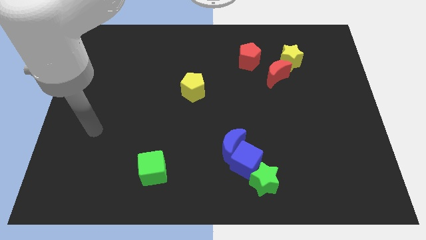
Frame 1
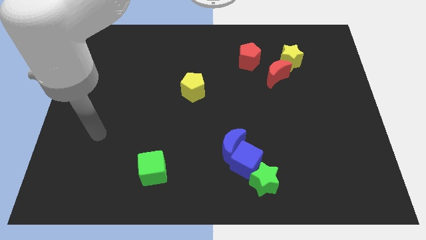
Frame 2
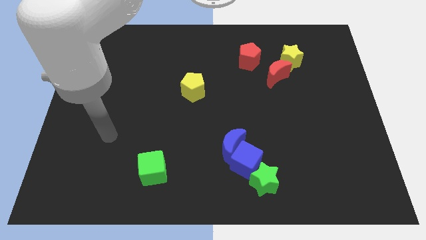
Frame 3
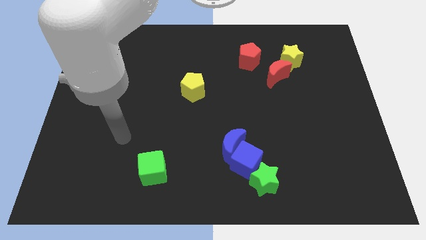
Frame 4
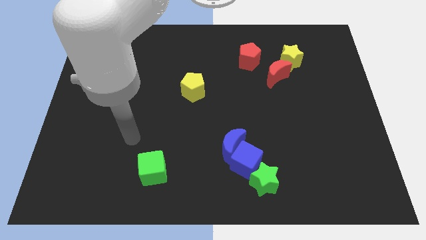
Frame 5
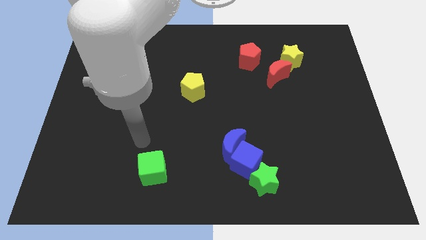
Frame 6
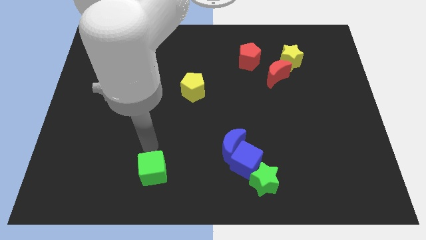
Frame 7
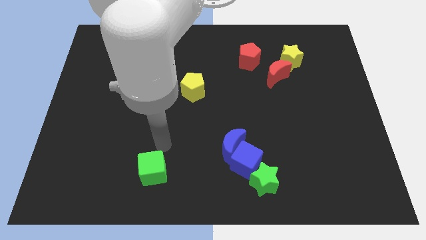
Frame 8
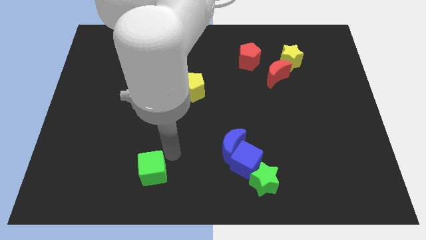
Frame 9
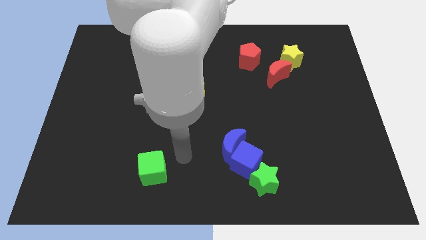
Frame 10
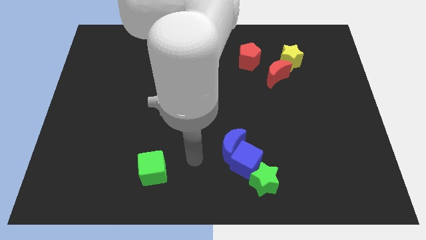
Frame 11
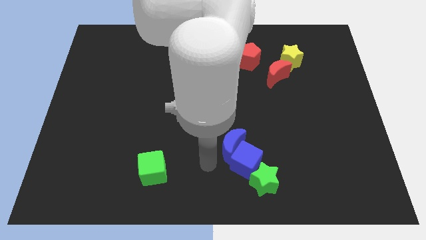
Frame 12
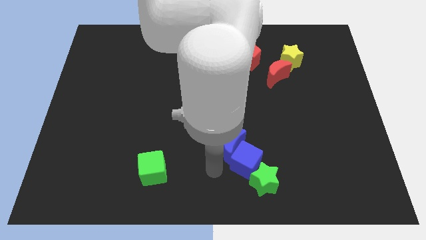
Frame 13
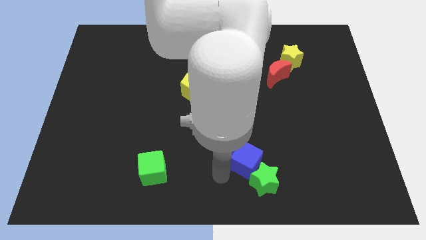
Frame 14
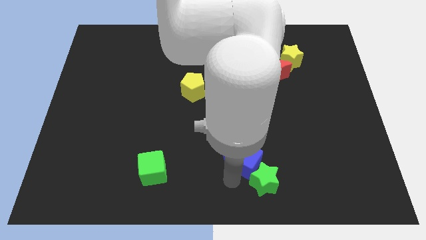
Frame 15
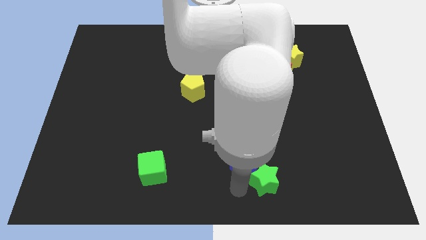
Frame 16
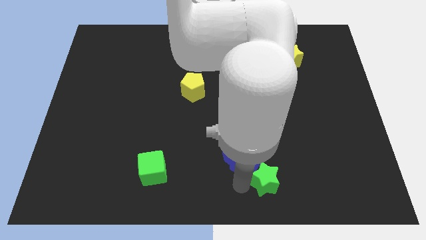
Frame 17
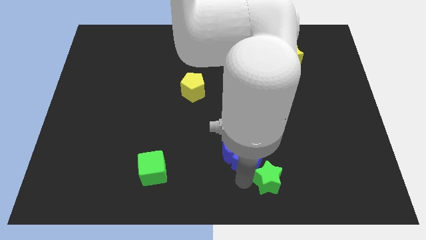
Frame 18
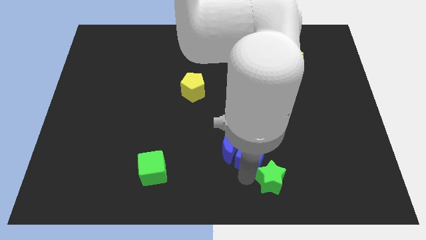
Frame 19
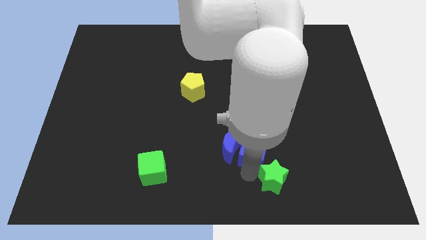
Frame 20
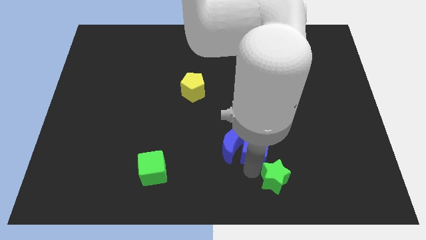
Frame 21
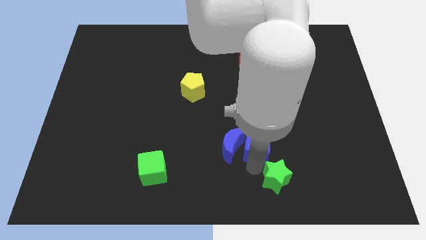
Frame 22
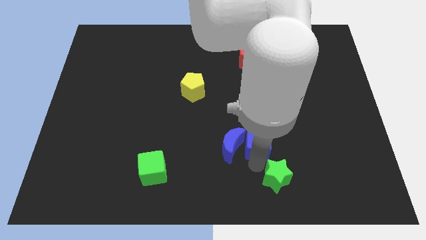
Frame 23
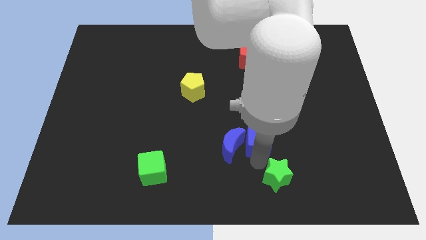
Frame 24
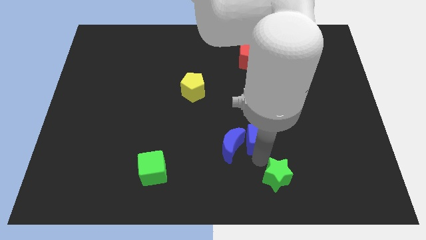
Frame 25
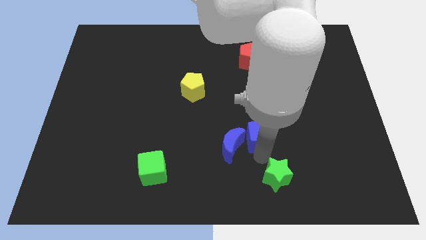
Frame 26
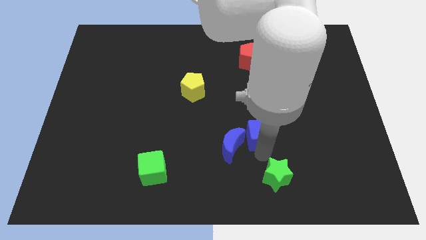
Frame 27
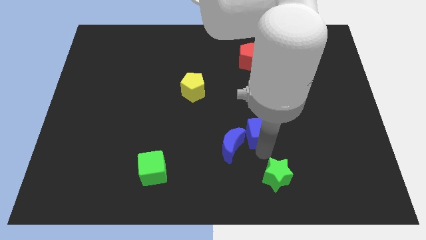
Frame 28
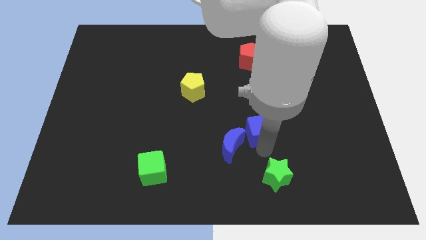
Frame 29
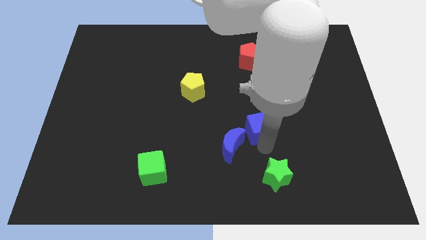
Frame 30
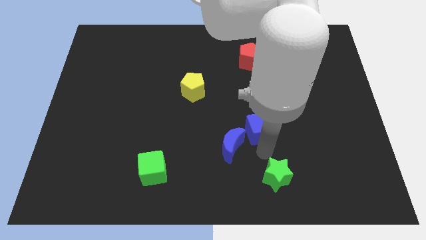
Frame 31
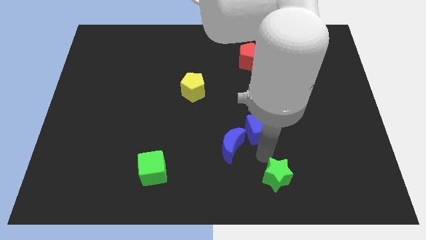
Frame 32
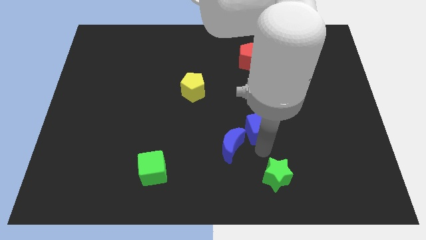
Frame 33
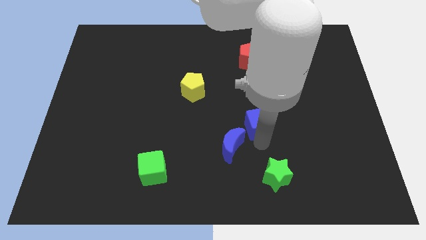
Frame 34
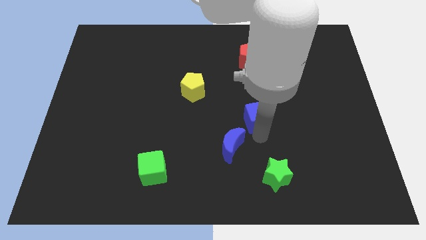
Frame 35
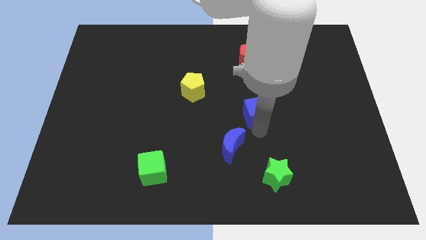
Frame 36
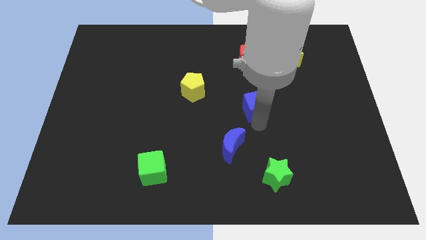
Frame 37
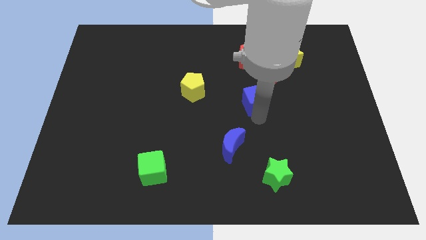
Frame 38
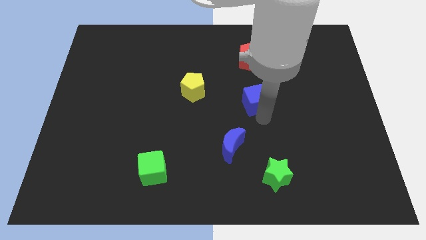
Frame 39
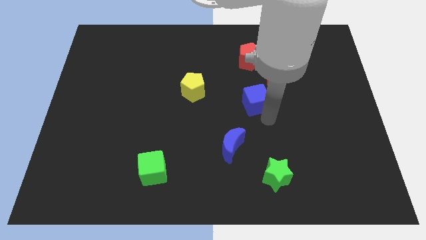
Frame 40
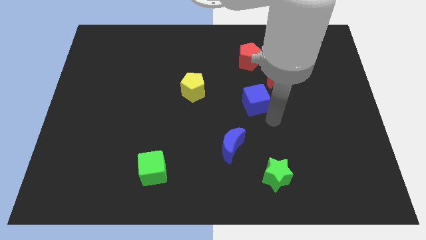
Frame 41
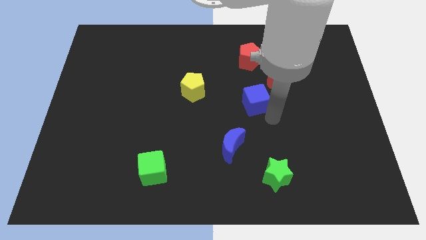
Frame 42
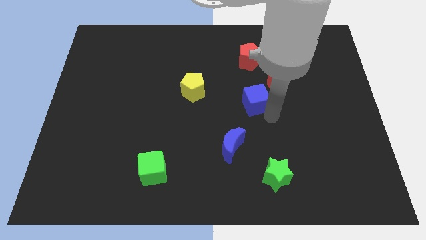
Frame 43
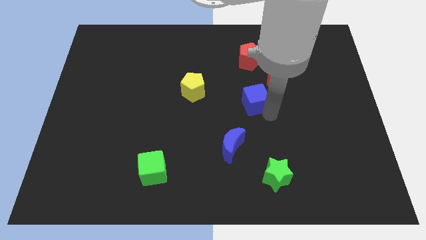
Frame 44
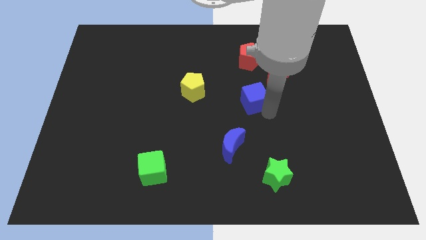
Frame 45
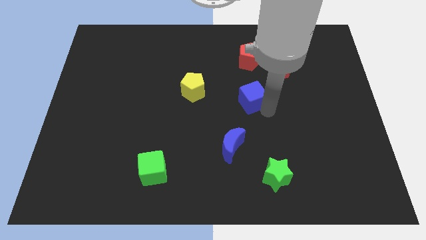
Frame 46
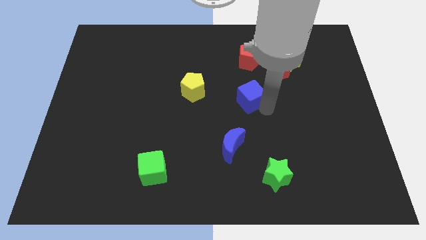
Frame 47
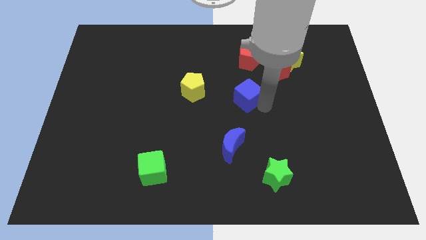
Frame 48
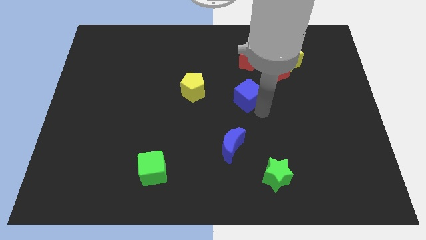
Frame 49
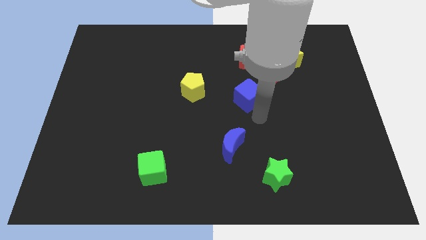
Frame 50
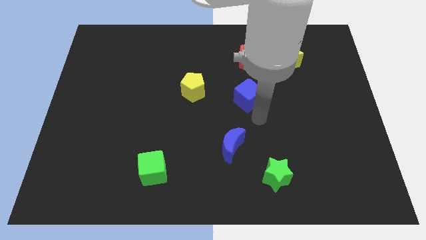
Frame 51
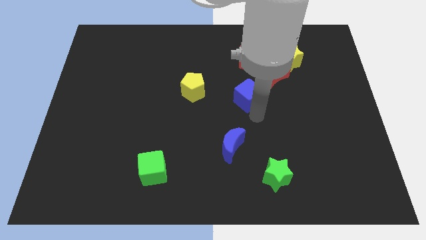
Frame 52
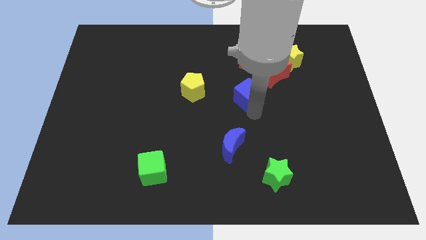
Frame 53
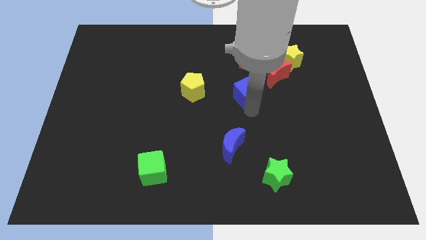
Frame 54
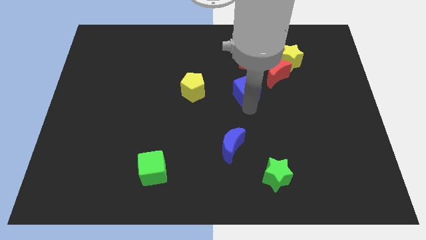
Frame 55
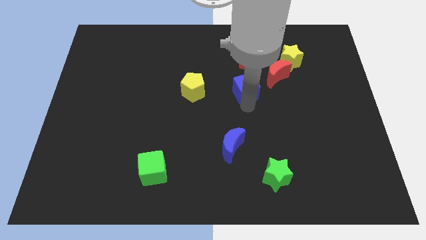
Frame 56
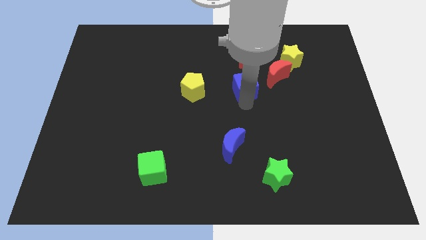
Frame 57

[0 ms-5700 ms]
slide the blue cube left of the red moon

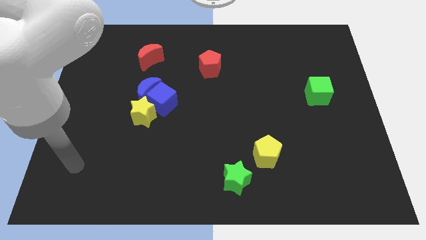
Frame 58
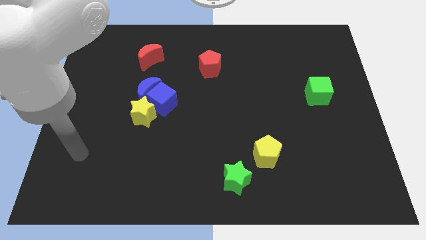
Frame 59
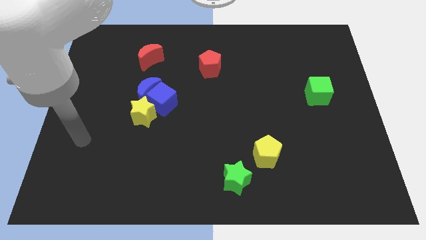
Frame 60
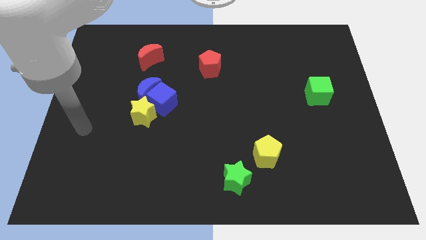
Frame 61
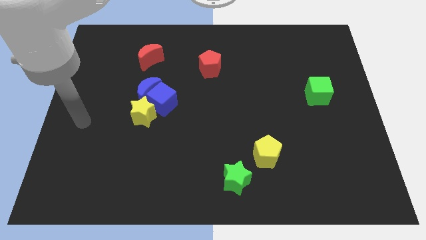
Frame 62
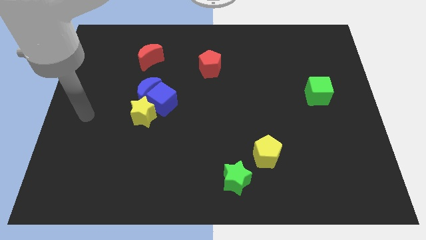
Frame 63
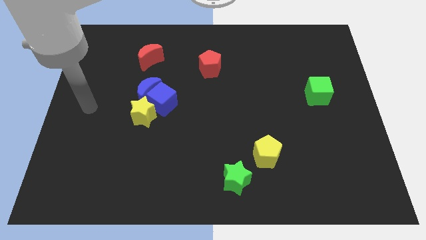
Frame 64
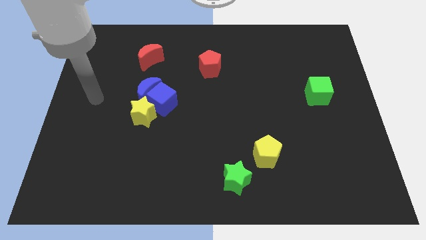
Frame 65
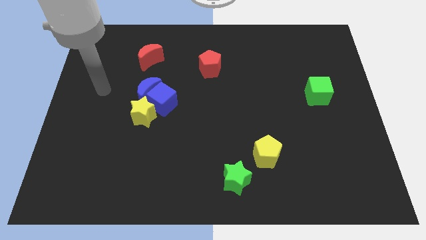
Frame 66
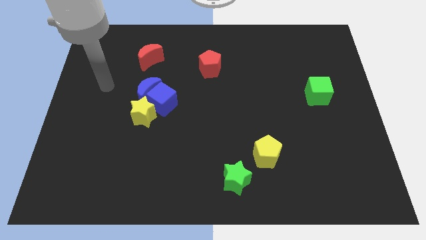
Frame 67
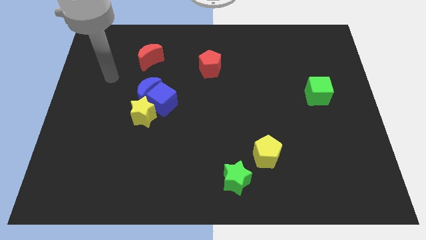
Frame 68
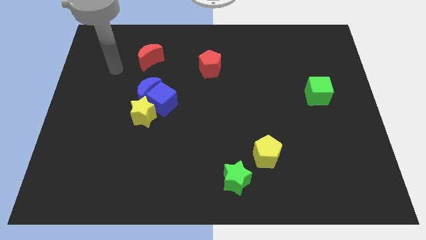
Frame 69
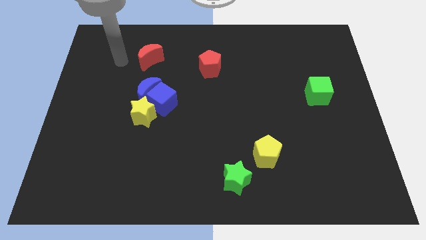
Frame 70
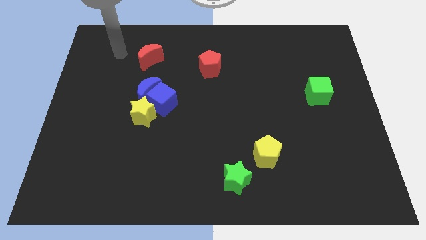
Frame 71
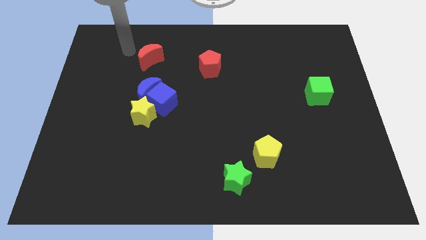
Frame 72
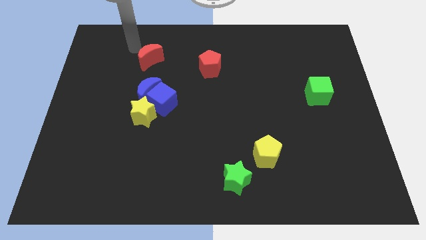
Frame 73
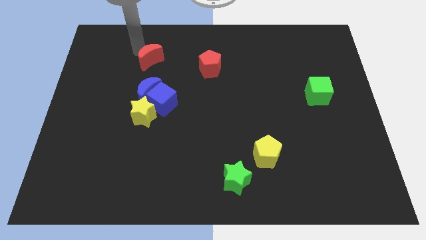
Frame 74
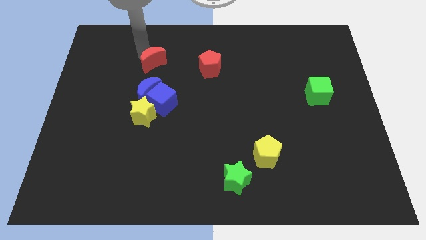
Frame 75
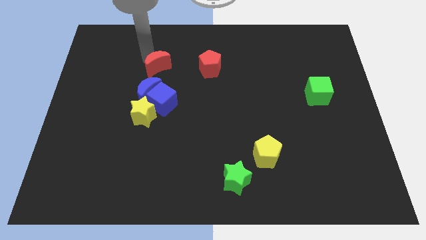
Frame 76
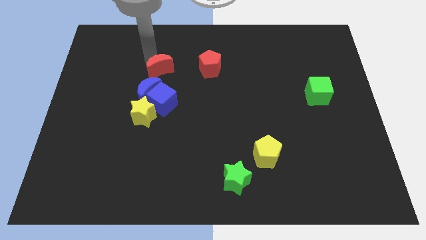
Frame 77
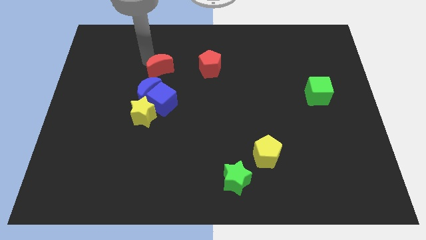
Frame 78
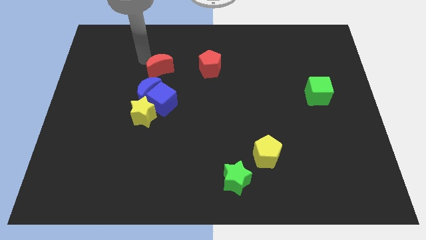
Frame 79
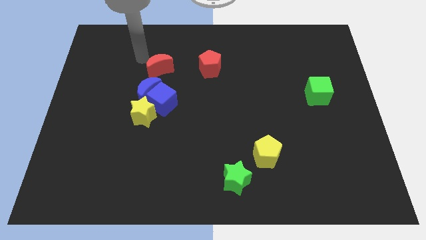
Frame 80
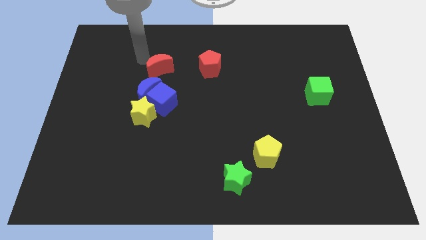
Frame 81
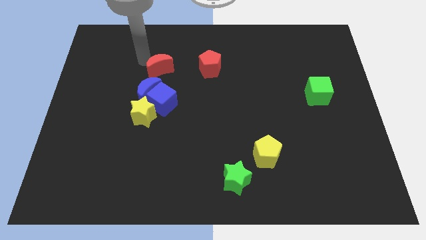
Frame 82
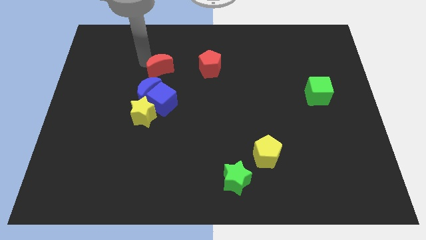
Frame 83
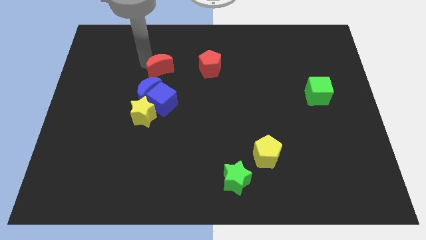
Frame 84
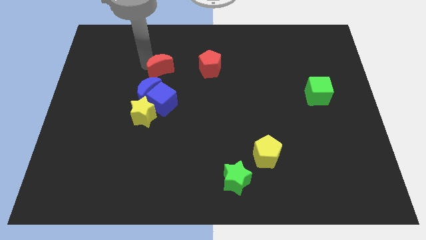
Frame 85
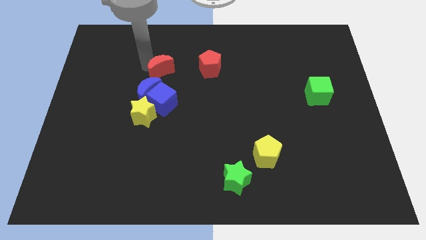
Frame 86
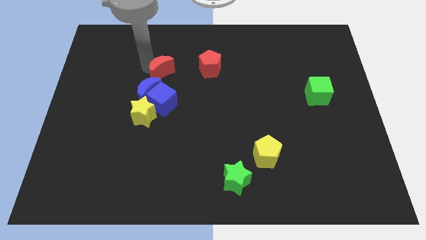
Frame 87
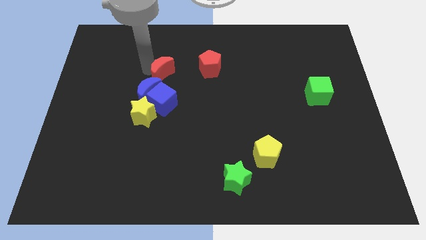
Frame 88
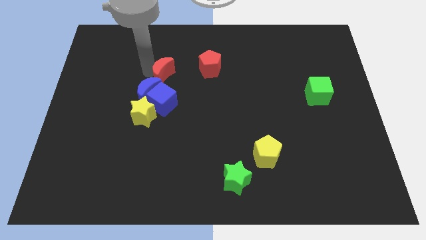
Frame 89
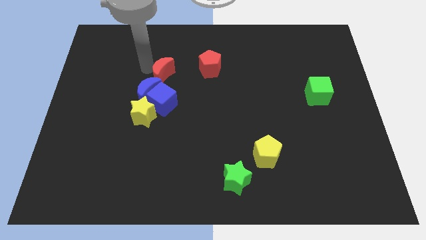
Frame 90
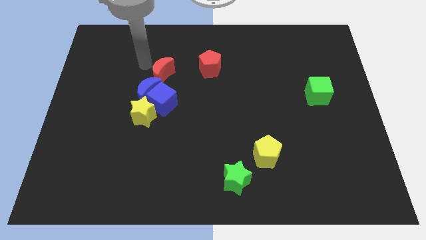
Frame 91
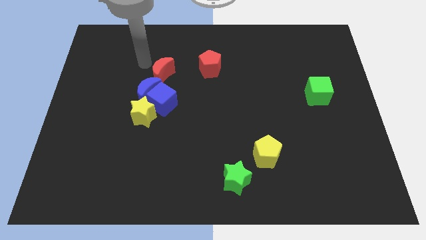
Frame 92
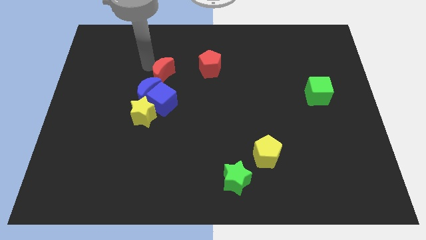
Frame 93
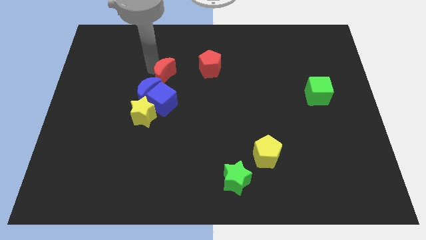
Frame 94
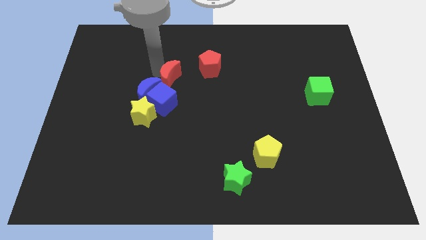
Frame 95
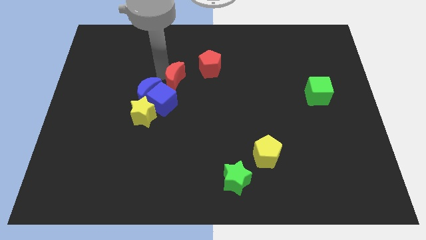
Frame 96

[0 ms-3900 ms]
slide the red moon just right of the blue moon
